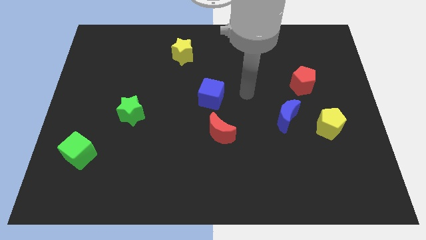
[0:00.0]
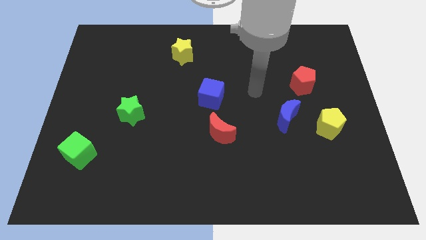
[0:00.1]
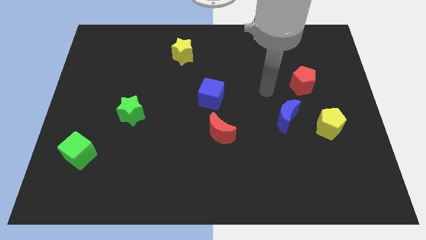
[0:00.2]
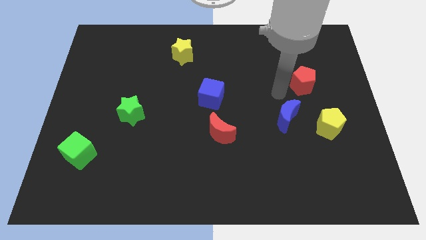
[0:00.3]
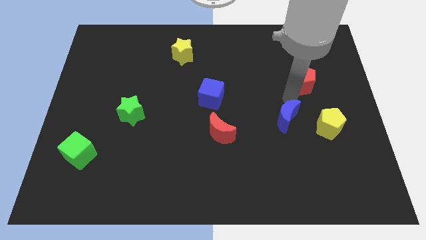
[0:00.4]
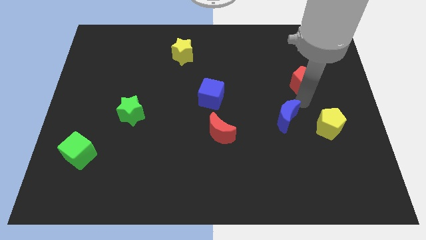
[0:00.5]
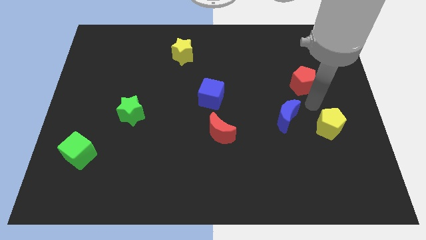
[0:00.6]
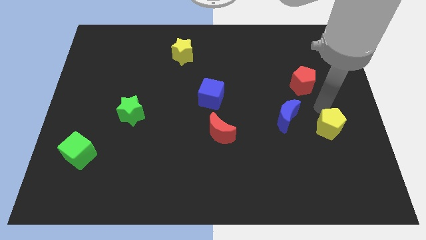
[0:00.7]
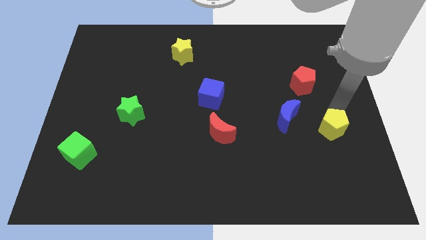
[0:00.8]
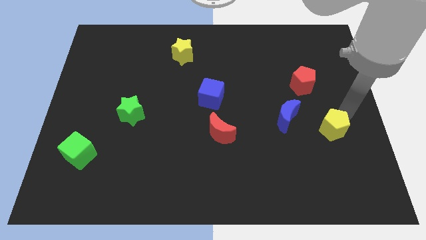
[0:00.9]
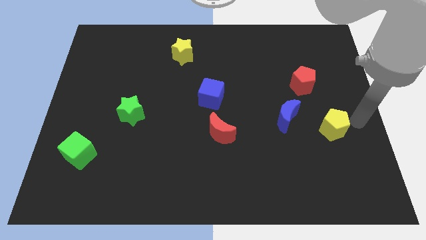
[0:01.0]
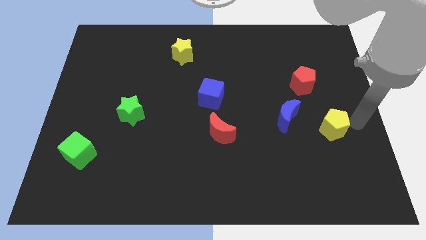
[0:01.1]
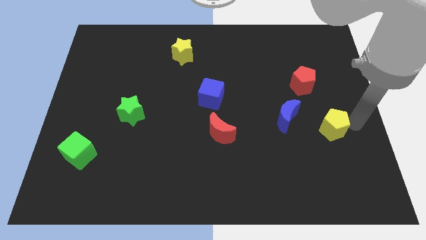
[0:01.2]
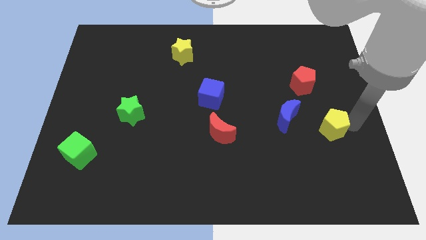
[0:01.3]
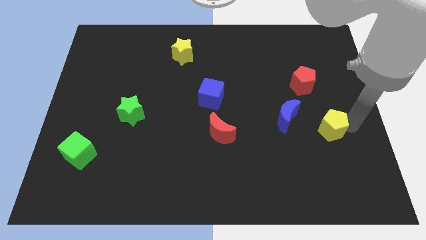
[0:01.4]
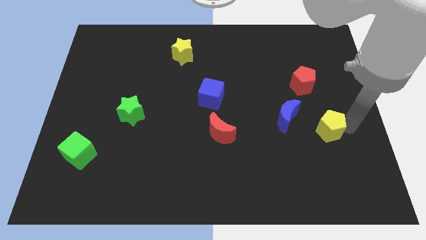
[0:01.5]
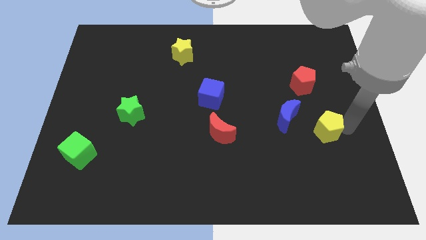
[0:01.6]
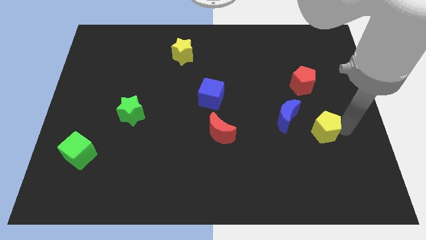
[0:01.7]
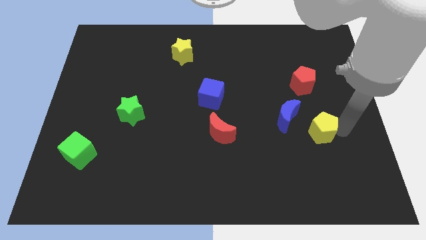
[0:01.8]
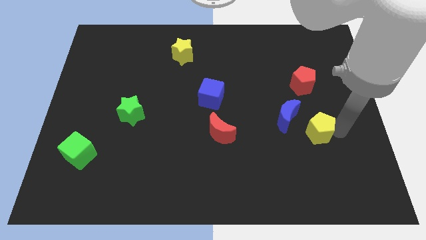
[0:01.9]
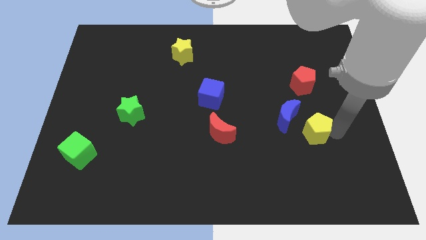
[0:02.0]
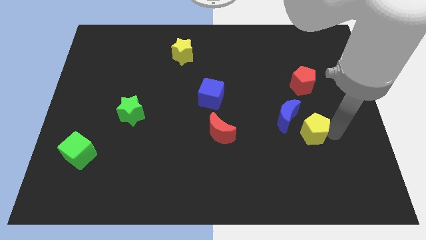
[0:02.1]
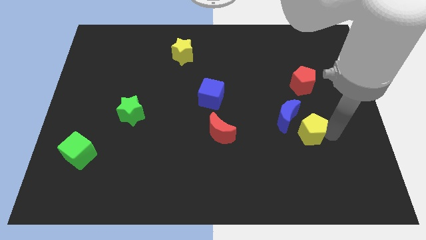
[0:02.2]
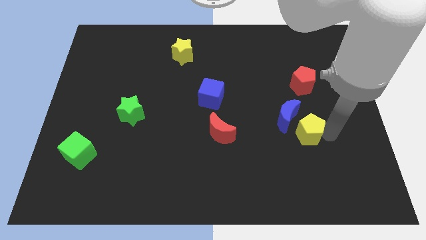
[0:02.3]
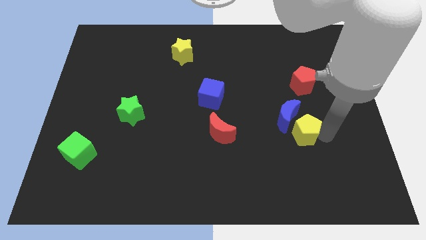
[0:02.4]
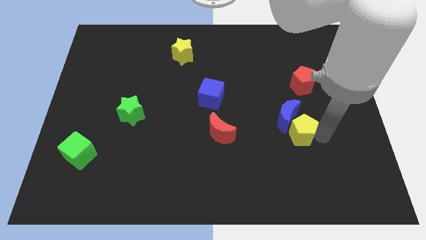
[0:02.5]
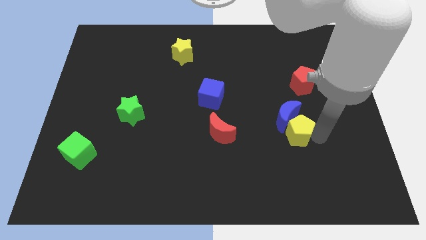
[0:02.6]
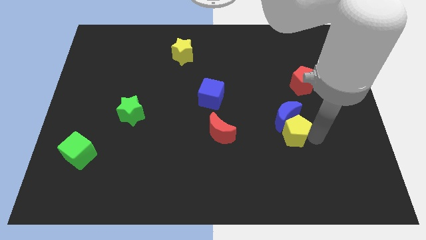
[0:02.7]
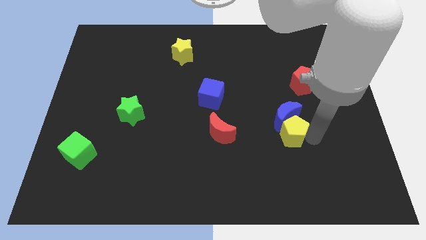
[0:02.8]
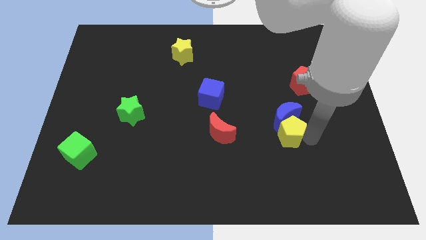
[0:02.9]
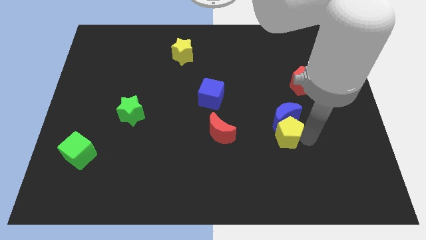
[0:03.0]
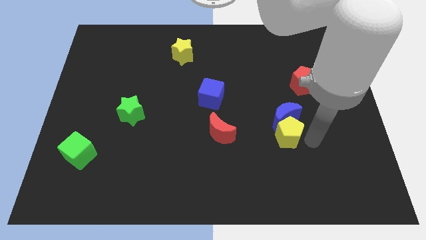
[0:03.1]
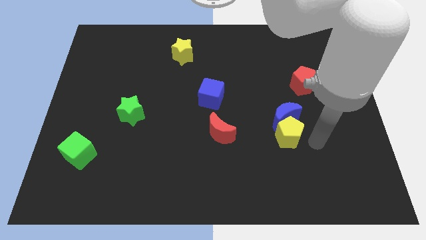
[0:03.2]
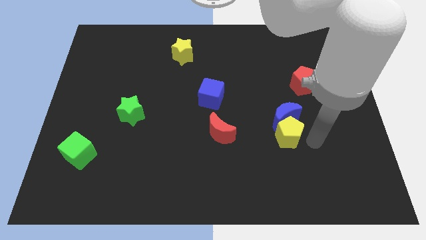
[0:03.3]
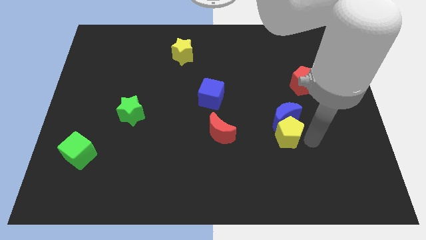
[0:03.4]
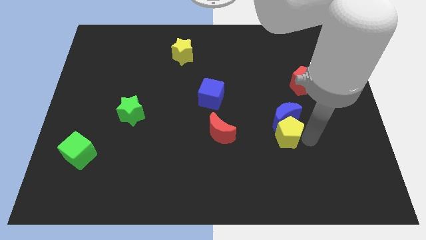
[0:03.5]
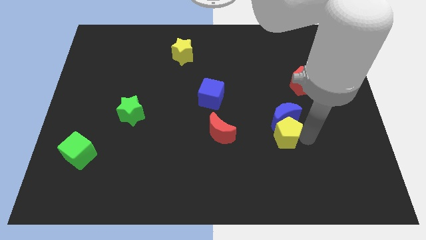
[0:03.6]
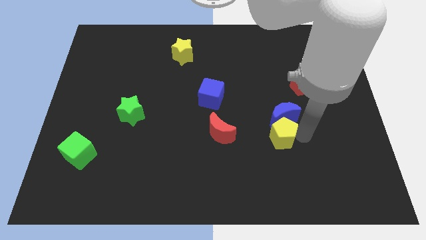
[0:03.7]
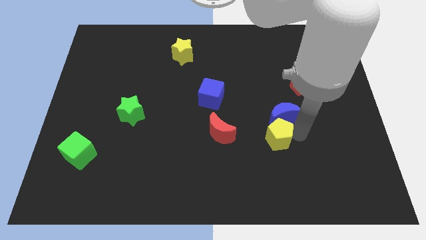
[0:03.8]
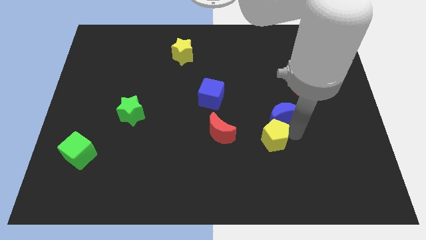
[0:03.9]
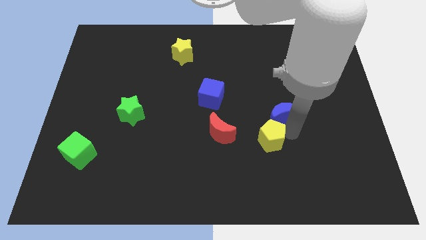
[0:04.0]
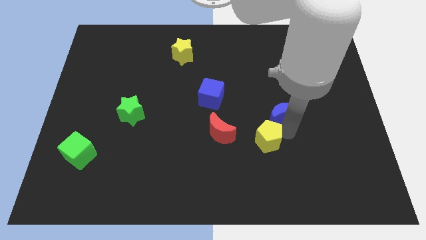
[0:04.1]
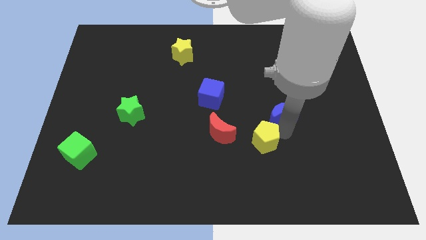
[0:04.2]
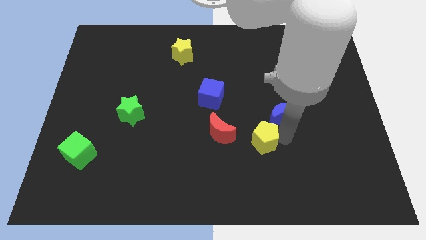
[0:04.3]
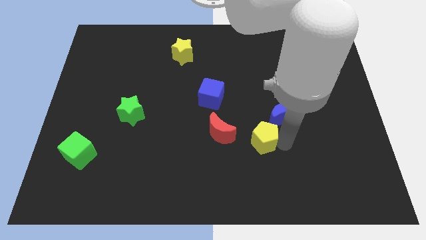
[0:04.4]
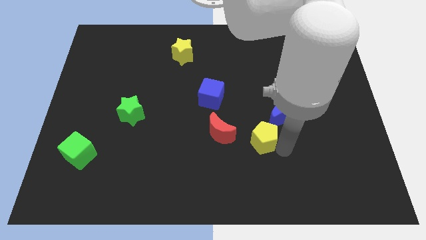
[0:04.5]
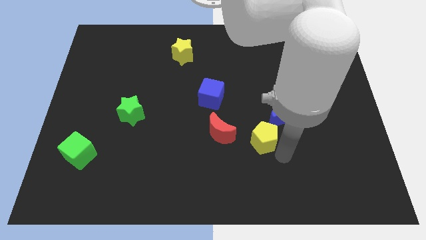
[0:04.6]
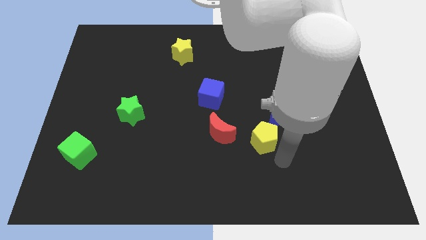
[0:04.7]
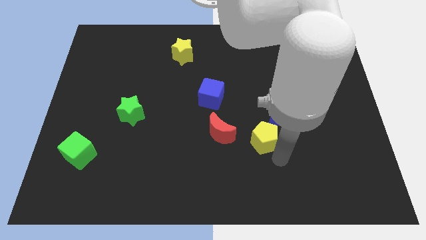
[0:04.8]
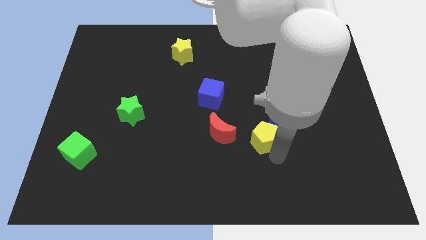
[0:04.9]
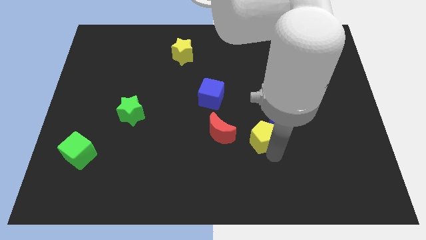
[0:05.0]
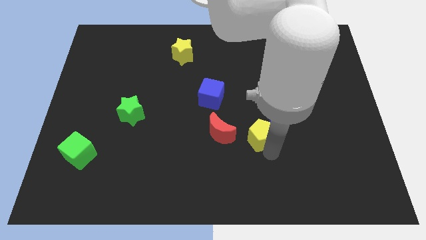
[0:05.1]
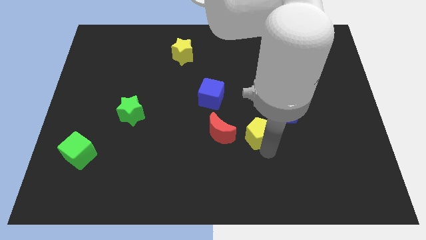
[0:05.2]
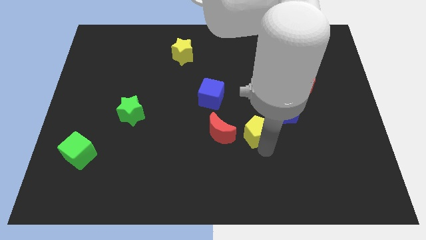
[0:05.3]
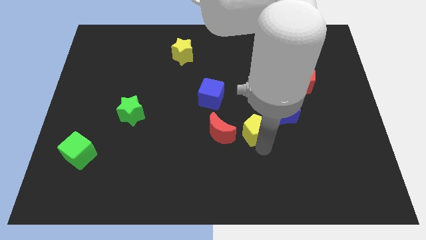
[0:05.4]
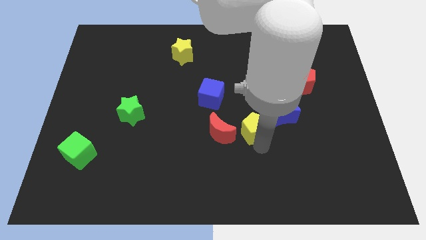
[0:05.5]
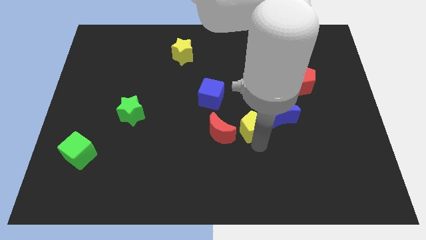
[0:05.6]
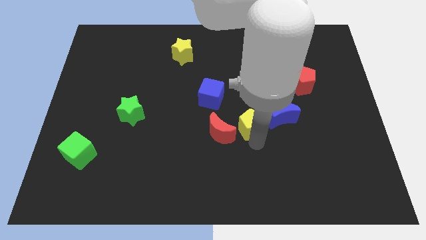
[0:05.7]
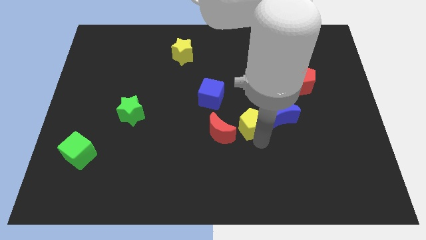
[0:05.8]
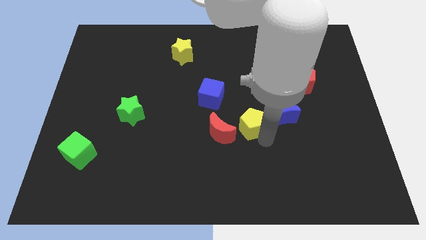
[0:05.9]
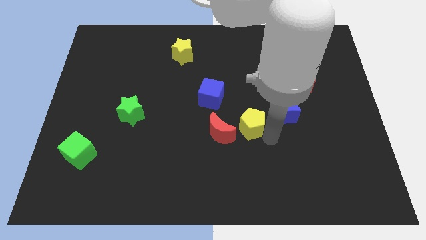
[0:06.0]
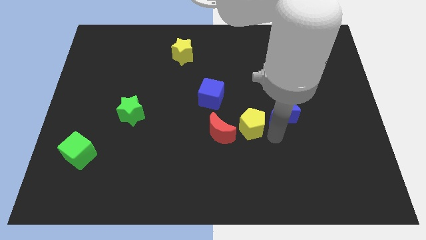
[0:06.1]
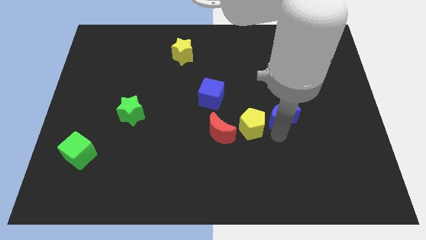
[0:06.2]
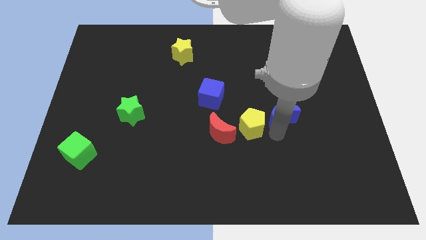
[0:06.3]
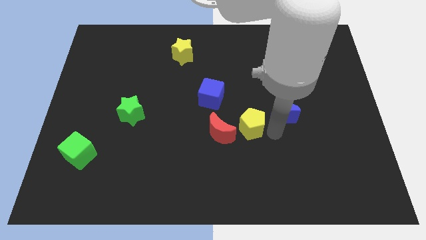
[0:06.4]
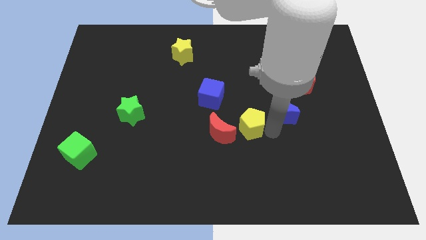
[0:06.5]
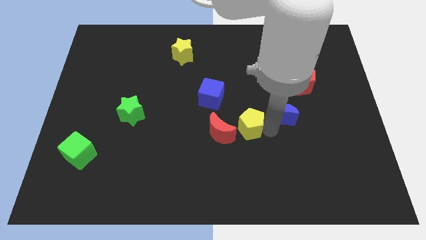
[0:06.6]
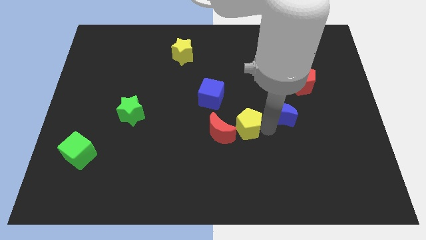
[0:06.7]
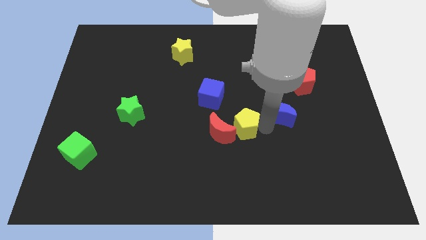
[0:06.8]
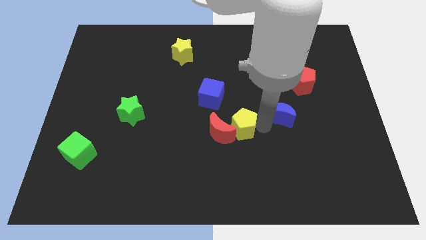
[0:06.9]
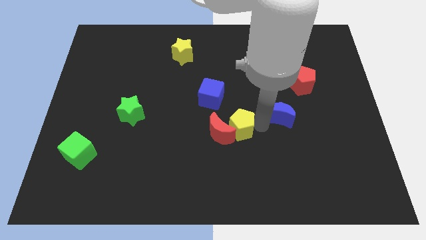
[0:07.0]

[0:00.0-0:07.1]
move the yellow pentagon to the left

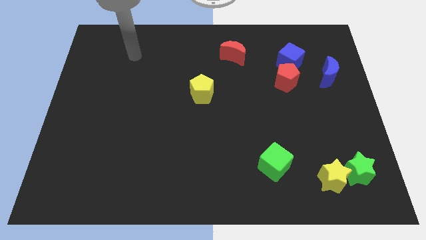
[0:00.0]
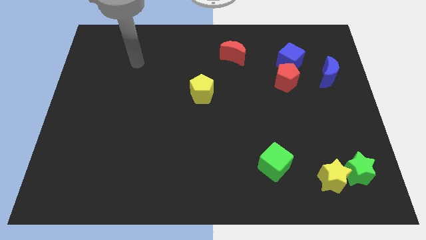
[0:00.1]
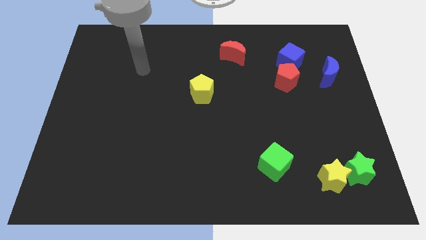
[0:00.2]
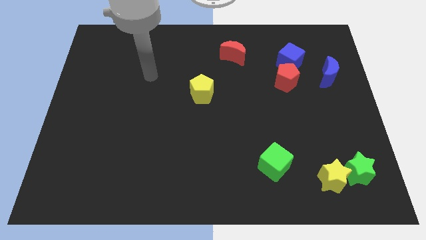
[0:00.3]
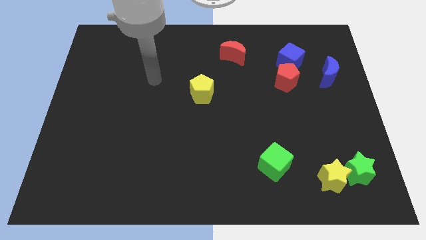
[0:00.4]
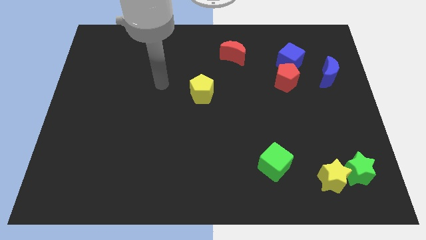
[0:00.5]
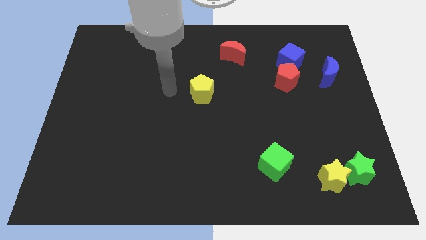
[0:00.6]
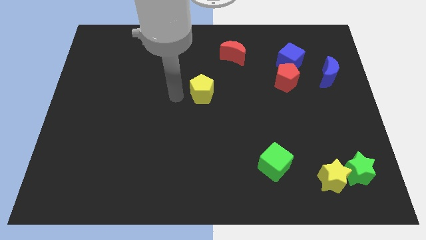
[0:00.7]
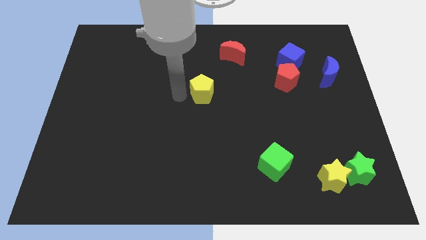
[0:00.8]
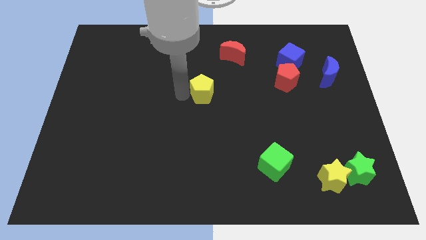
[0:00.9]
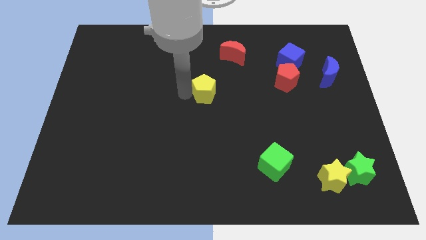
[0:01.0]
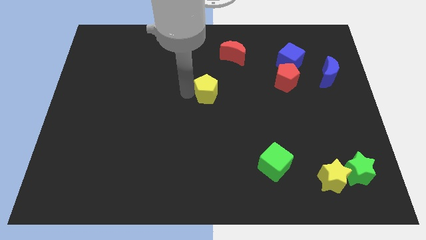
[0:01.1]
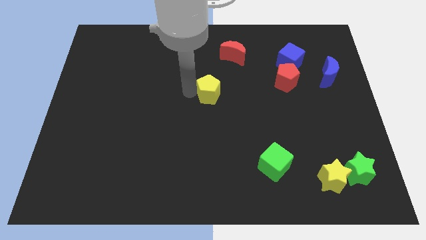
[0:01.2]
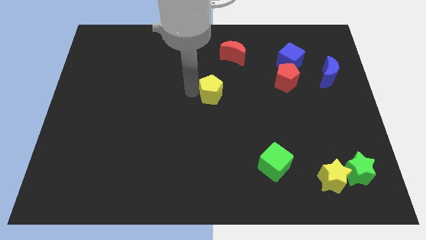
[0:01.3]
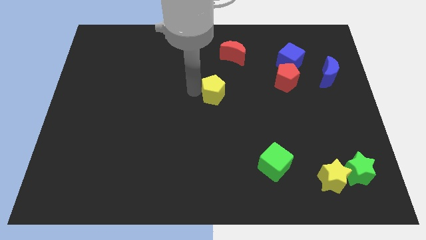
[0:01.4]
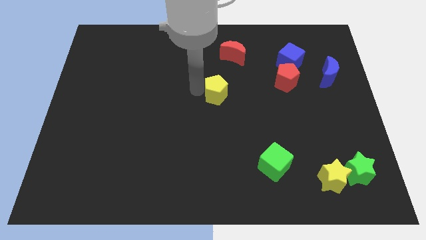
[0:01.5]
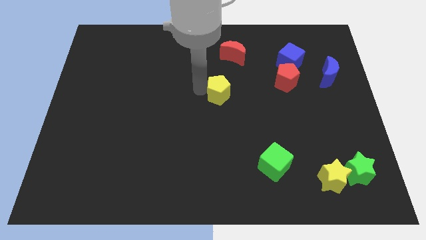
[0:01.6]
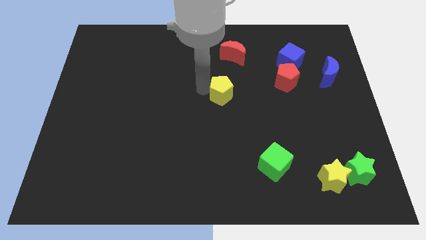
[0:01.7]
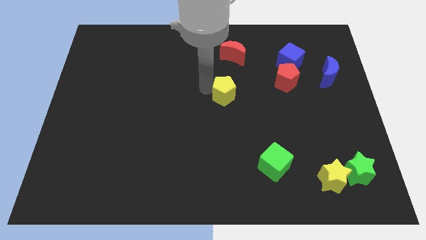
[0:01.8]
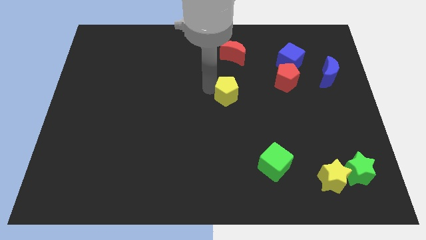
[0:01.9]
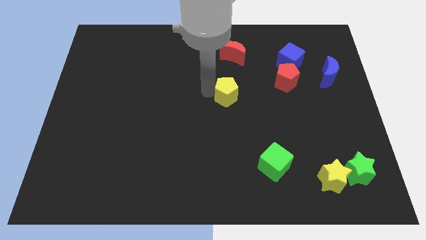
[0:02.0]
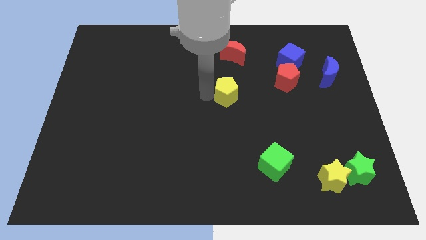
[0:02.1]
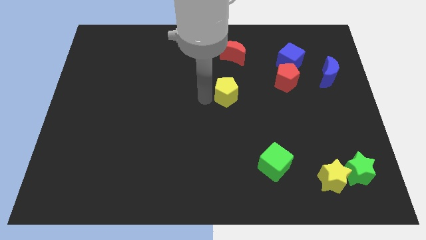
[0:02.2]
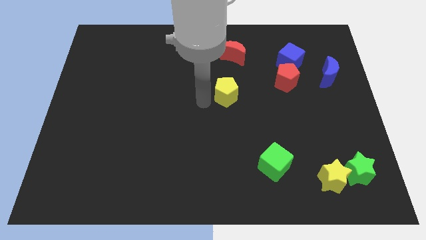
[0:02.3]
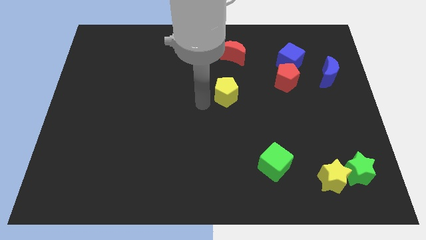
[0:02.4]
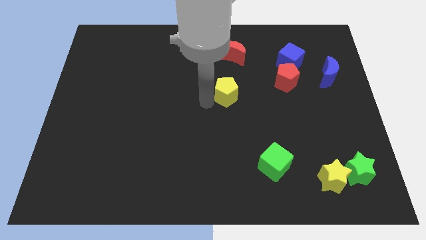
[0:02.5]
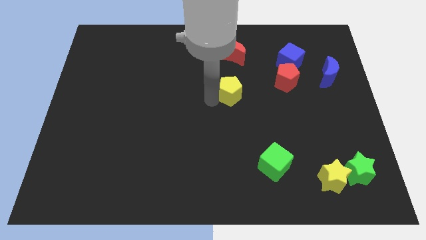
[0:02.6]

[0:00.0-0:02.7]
slightly push the yellow pentagon right
